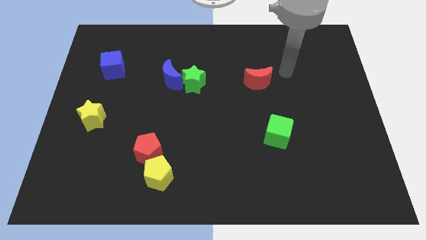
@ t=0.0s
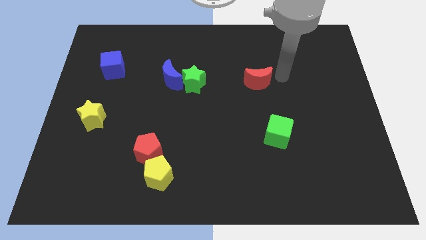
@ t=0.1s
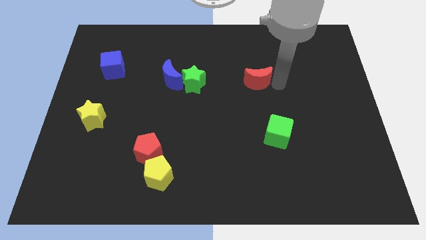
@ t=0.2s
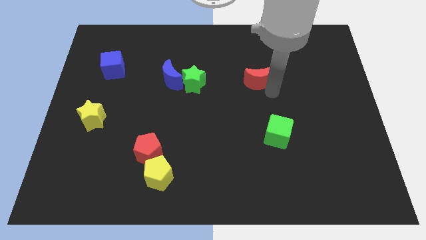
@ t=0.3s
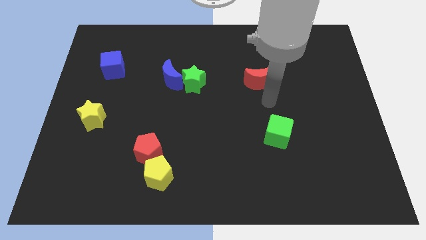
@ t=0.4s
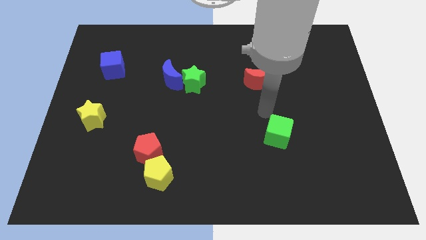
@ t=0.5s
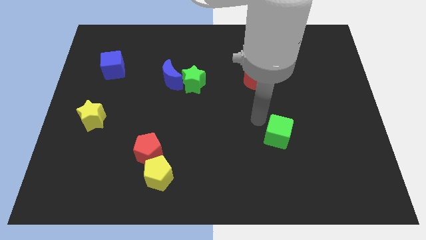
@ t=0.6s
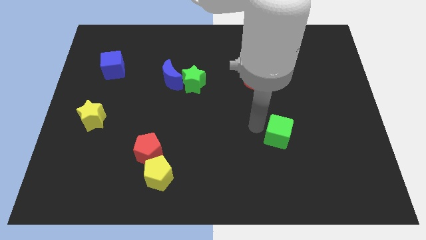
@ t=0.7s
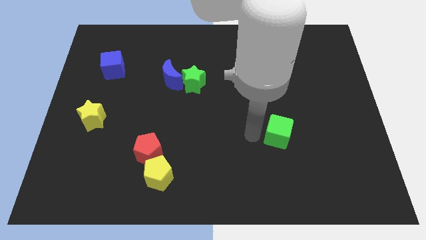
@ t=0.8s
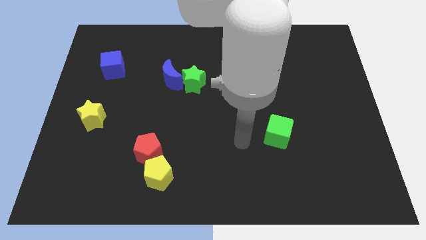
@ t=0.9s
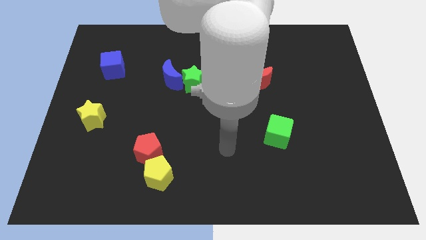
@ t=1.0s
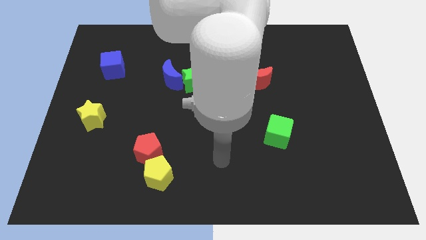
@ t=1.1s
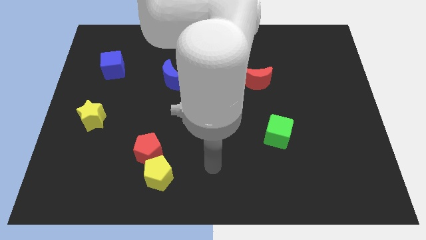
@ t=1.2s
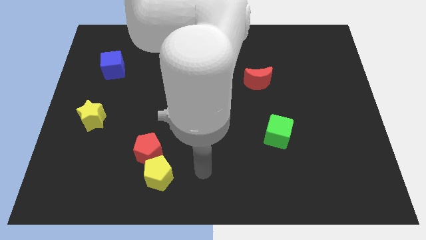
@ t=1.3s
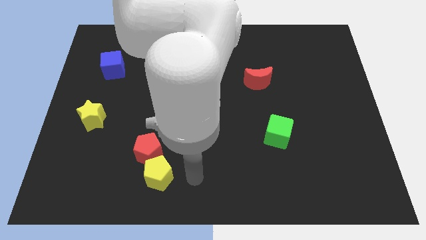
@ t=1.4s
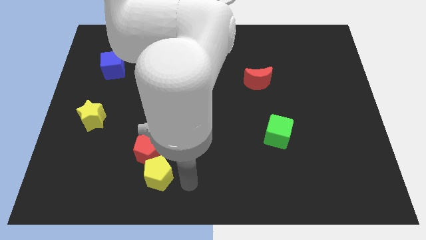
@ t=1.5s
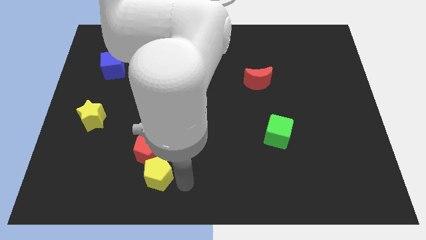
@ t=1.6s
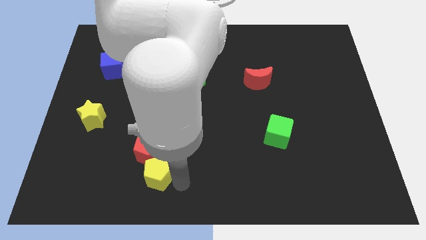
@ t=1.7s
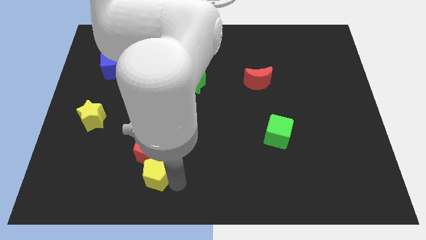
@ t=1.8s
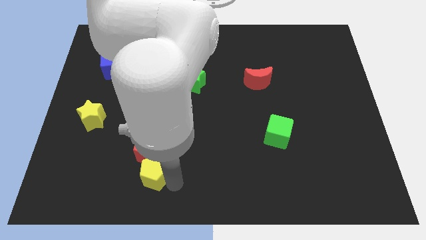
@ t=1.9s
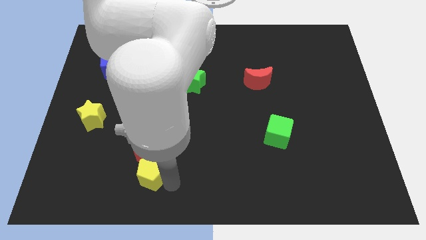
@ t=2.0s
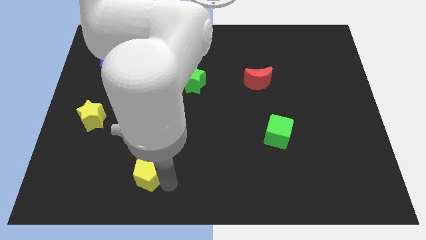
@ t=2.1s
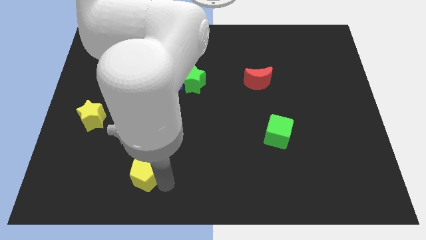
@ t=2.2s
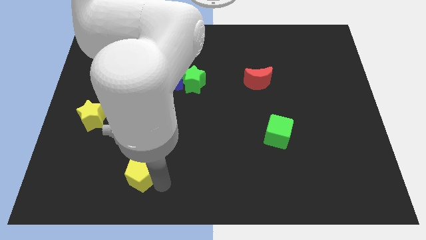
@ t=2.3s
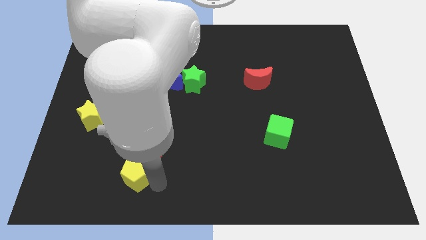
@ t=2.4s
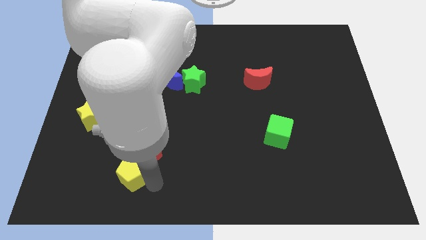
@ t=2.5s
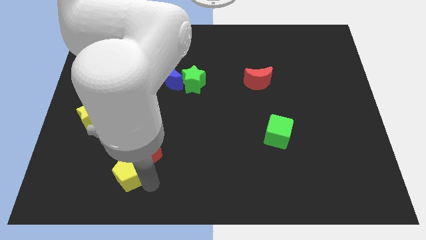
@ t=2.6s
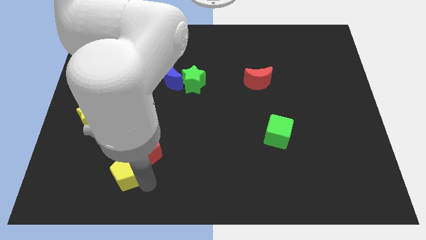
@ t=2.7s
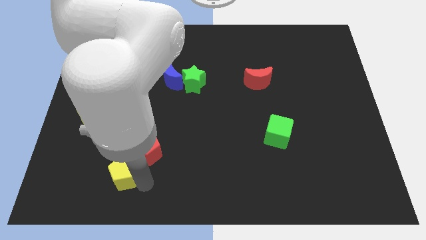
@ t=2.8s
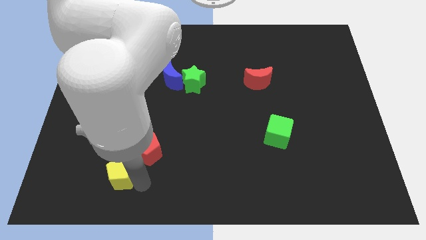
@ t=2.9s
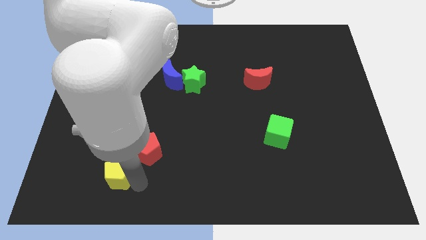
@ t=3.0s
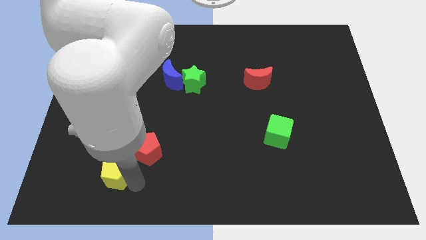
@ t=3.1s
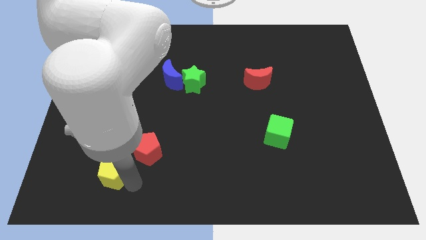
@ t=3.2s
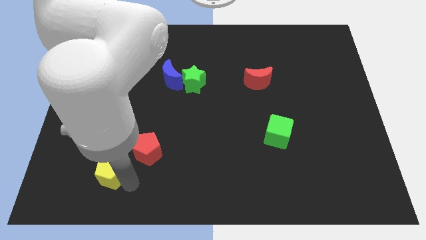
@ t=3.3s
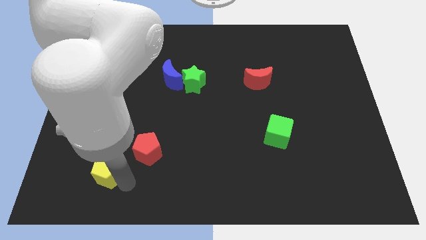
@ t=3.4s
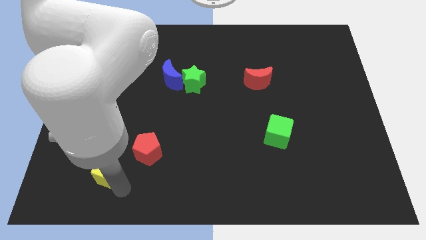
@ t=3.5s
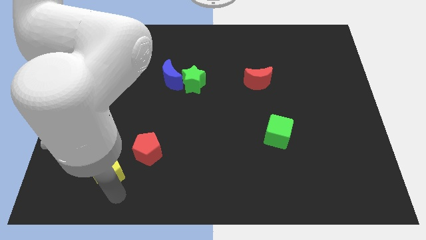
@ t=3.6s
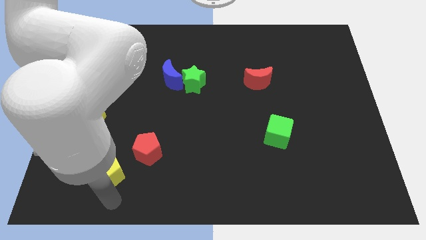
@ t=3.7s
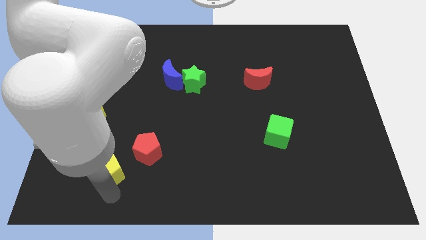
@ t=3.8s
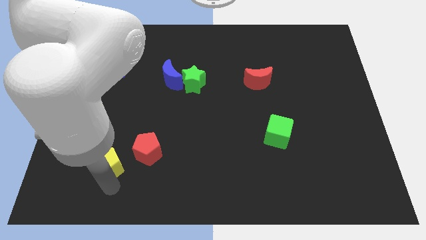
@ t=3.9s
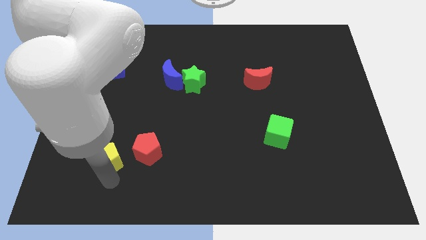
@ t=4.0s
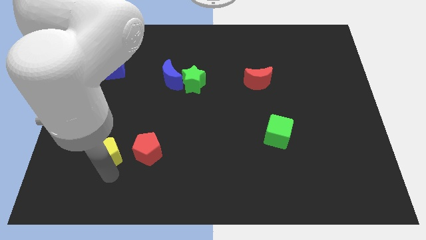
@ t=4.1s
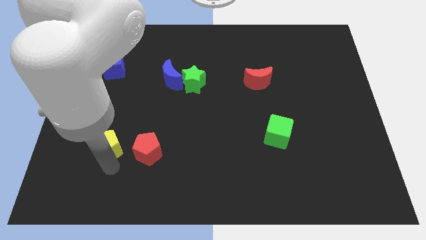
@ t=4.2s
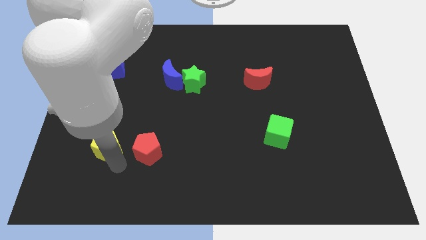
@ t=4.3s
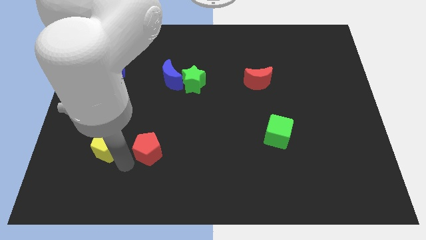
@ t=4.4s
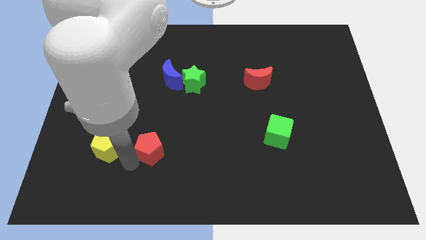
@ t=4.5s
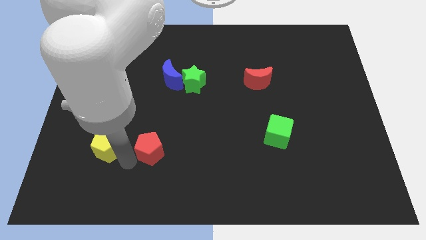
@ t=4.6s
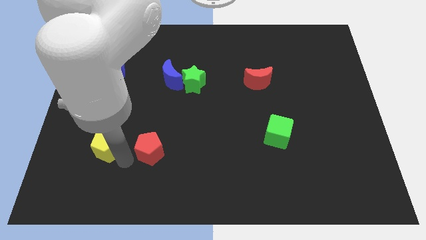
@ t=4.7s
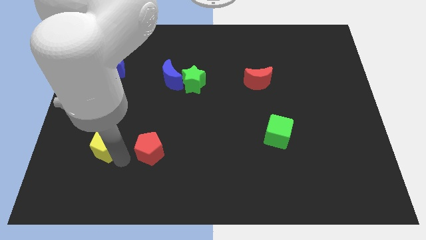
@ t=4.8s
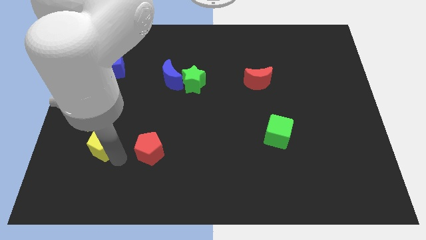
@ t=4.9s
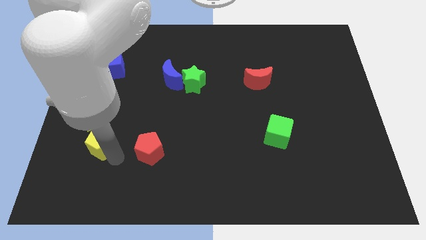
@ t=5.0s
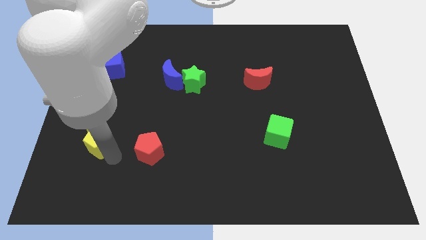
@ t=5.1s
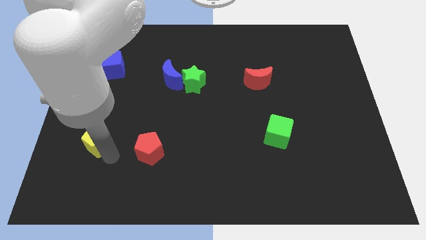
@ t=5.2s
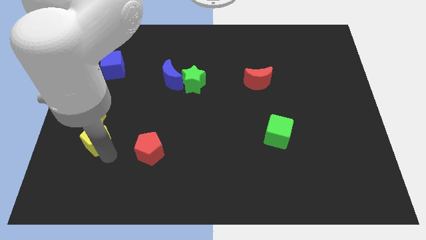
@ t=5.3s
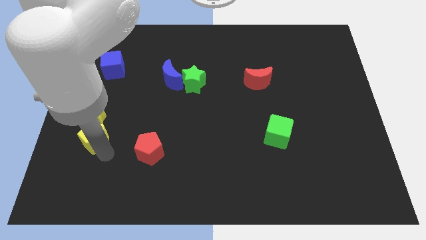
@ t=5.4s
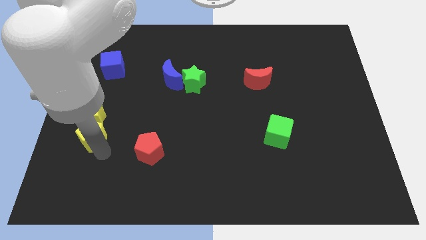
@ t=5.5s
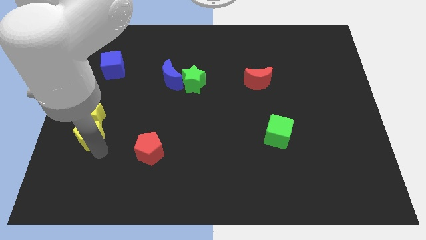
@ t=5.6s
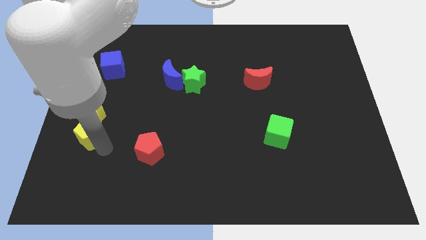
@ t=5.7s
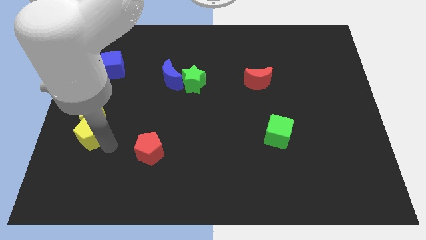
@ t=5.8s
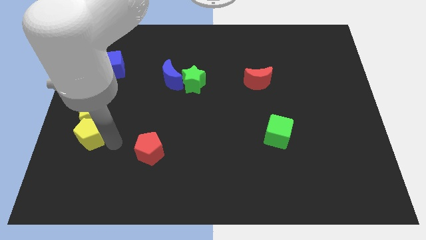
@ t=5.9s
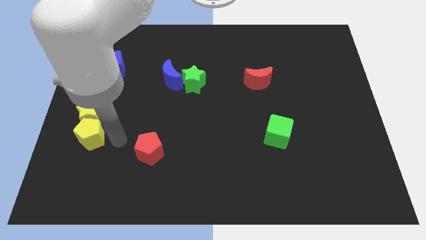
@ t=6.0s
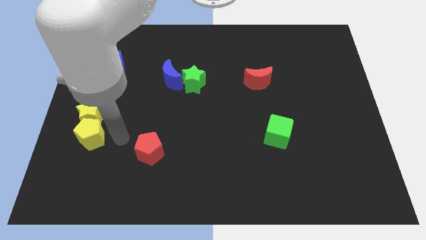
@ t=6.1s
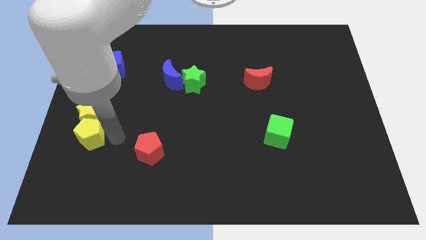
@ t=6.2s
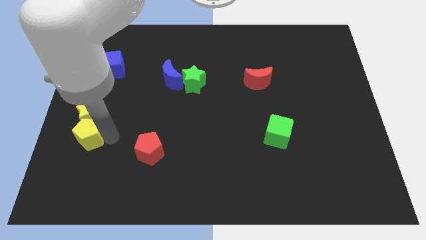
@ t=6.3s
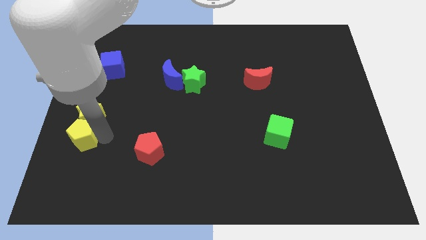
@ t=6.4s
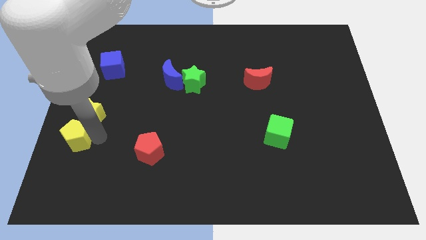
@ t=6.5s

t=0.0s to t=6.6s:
put the yellow pentagon to the center left

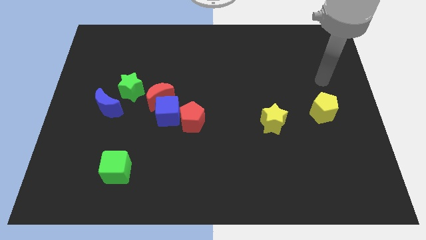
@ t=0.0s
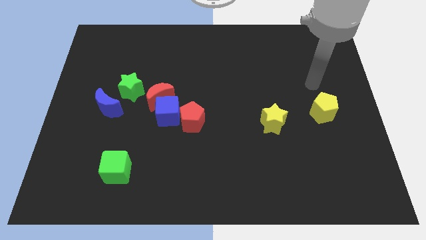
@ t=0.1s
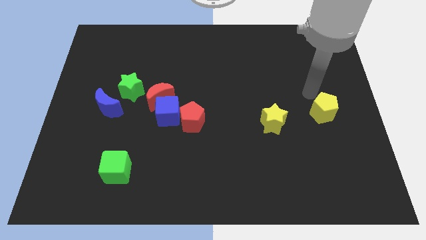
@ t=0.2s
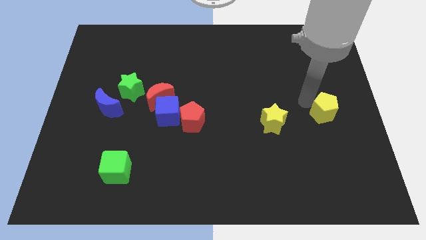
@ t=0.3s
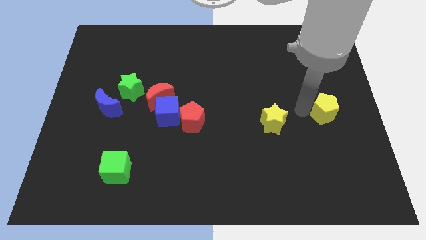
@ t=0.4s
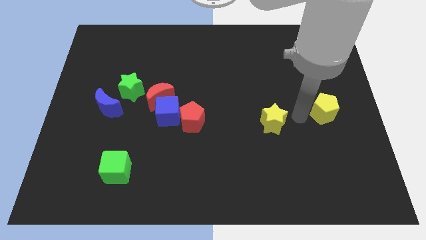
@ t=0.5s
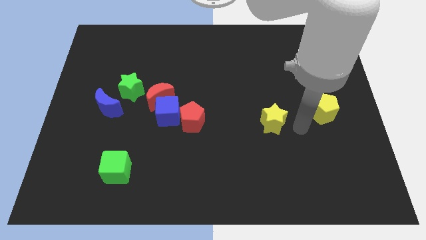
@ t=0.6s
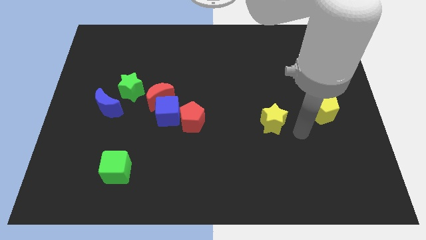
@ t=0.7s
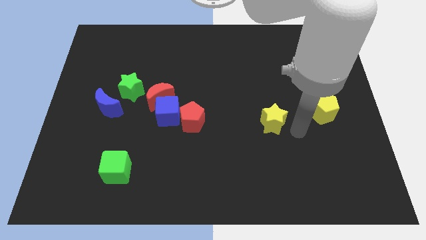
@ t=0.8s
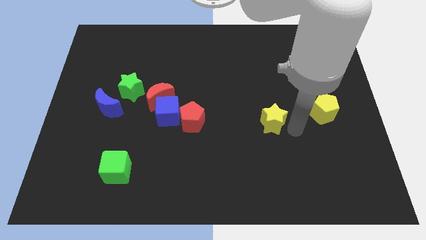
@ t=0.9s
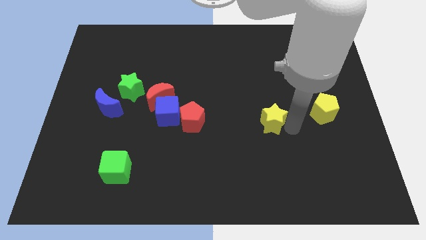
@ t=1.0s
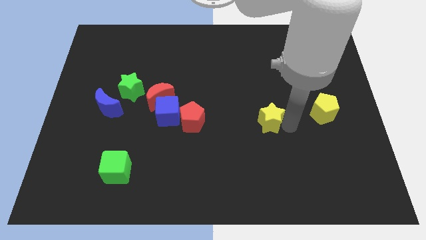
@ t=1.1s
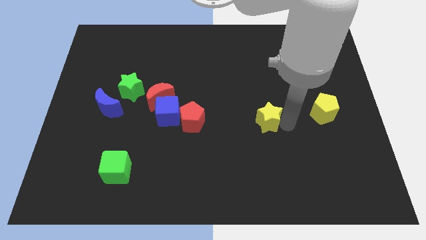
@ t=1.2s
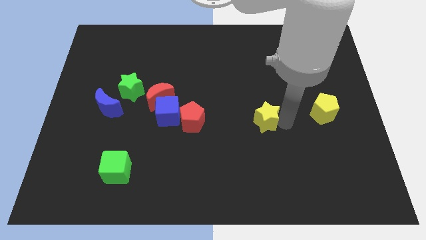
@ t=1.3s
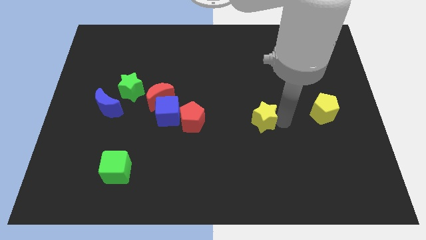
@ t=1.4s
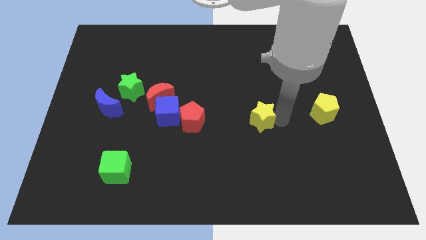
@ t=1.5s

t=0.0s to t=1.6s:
put the yellow star to the middle
